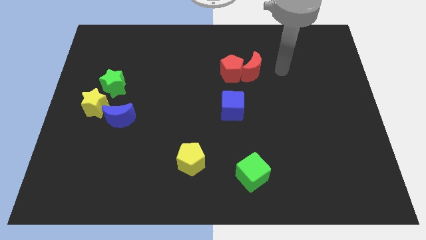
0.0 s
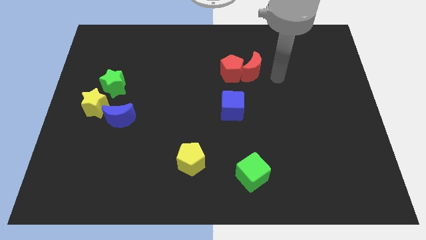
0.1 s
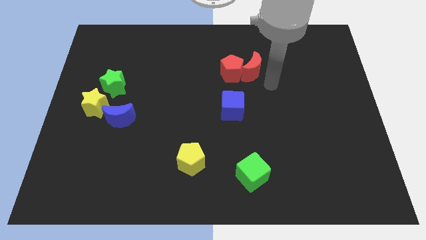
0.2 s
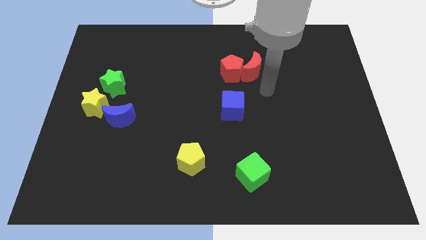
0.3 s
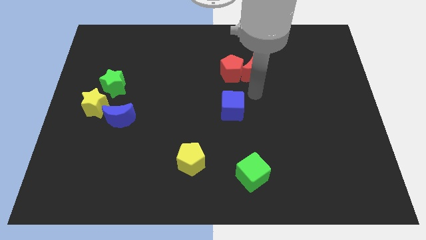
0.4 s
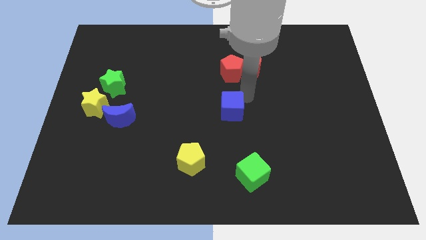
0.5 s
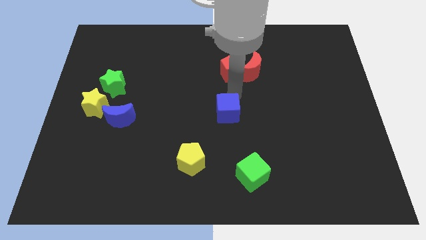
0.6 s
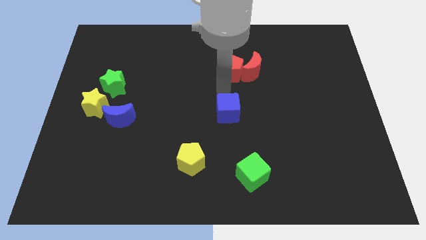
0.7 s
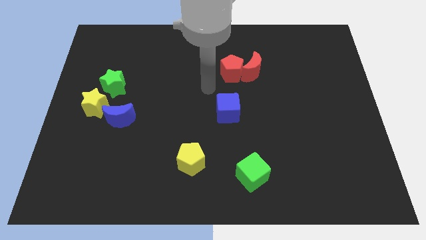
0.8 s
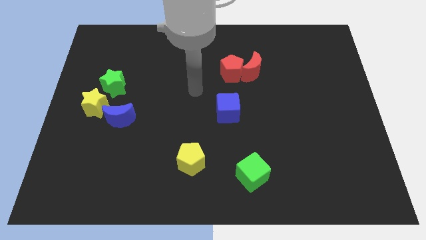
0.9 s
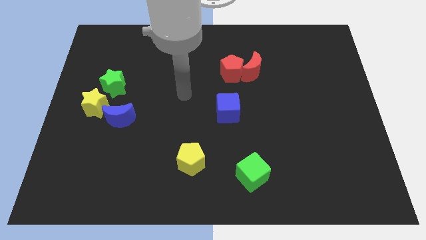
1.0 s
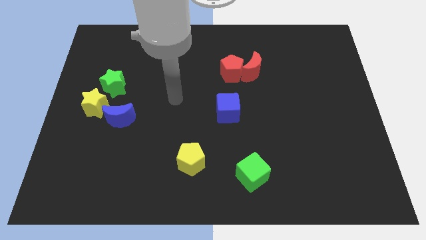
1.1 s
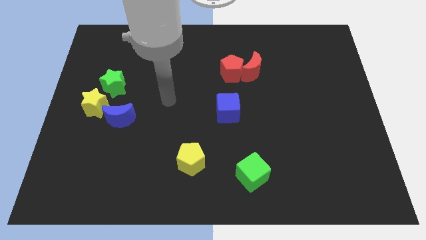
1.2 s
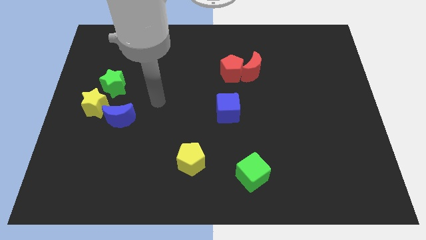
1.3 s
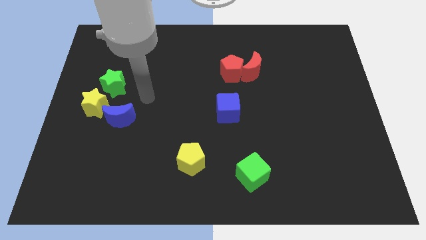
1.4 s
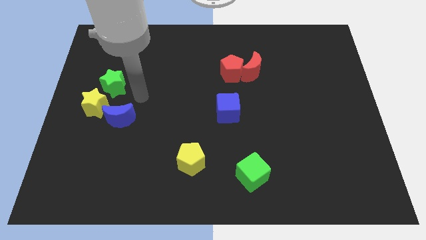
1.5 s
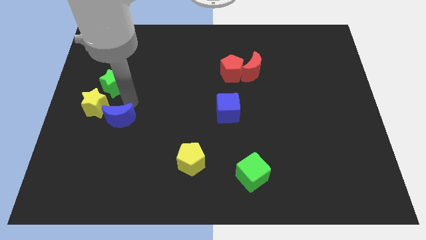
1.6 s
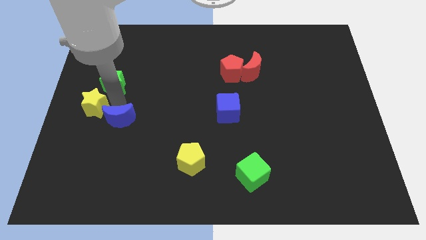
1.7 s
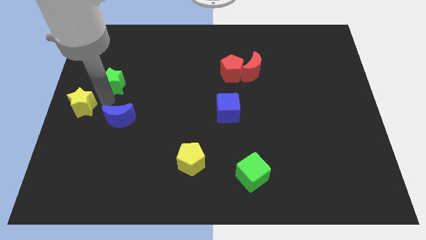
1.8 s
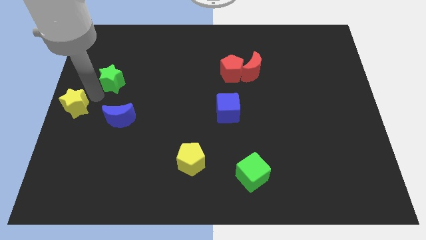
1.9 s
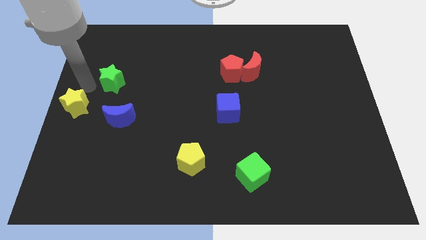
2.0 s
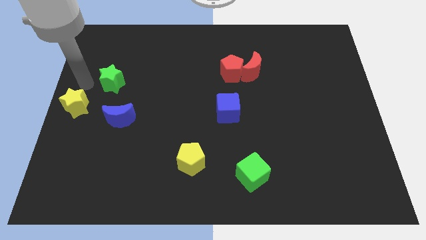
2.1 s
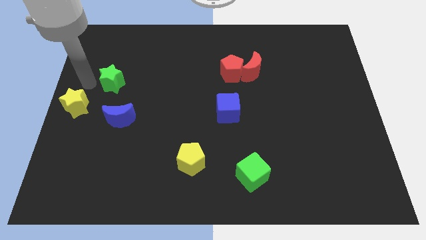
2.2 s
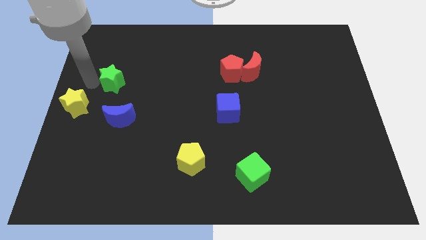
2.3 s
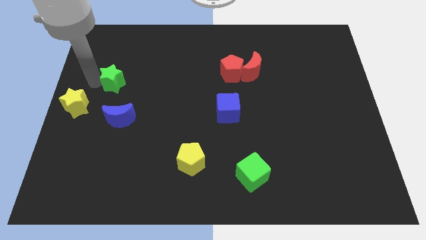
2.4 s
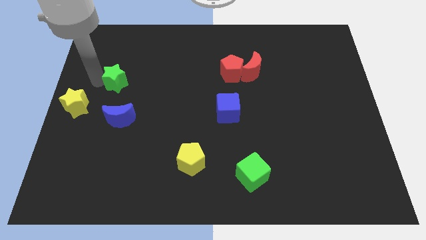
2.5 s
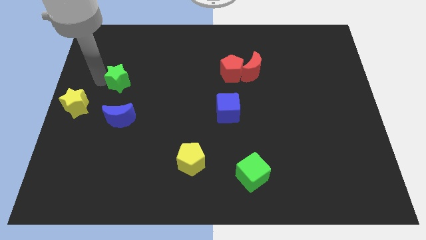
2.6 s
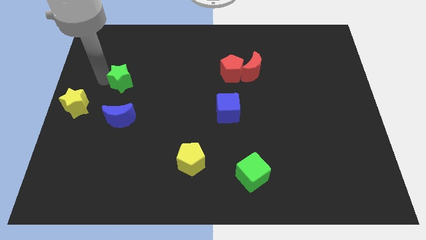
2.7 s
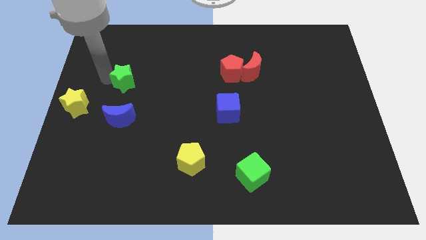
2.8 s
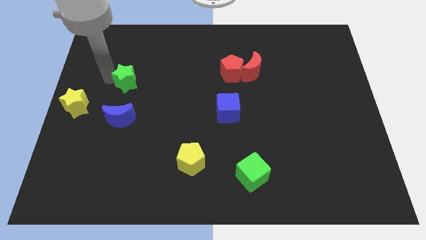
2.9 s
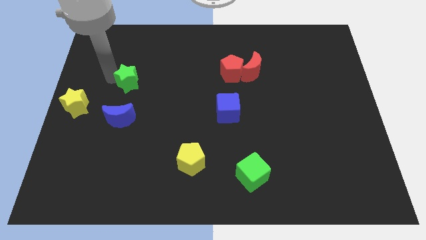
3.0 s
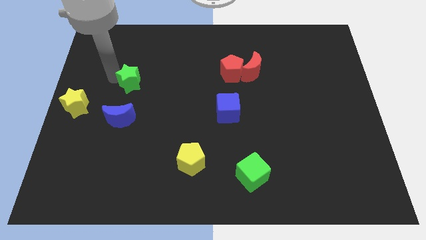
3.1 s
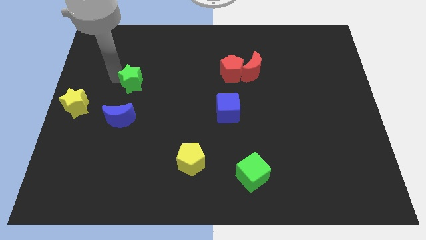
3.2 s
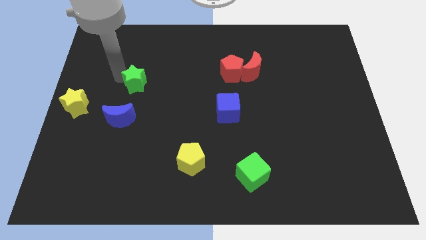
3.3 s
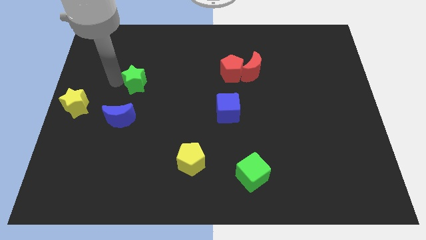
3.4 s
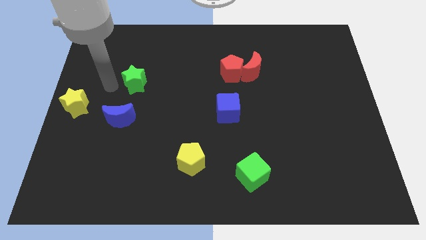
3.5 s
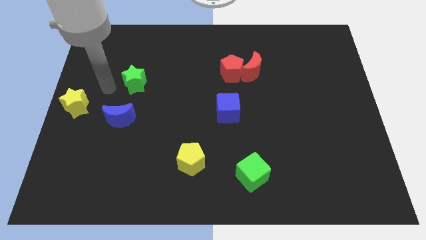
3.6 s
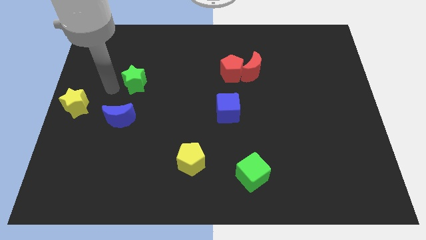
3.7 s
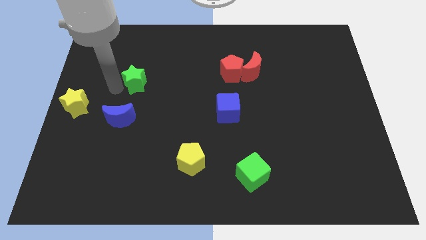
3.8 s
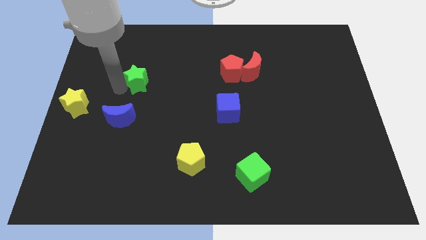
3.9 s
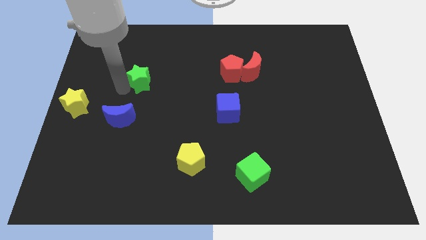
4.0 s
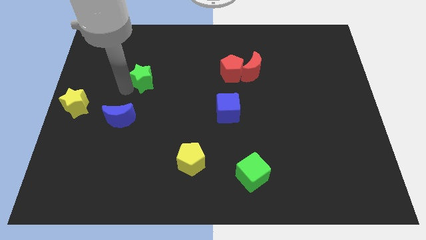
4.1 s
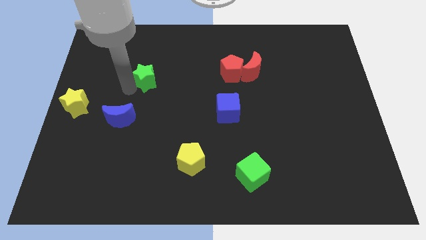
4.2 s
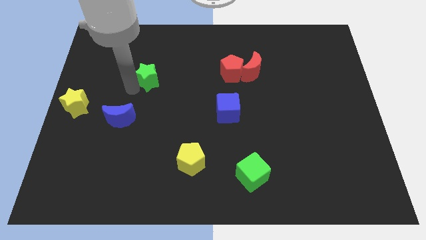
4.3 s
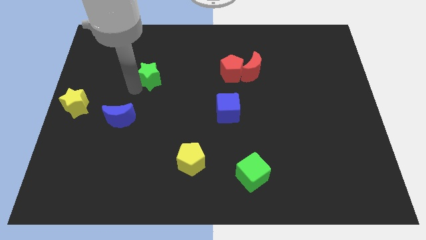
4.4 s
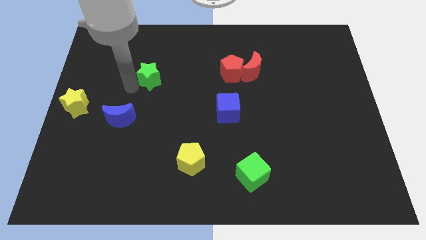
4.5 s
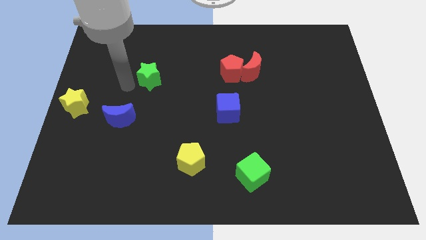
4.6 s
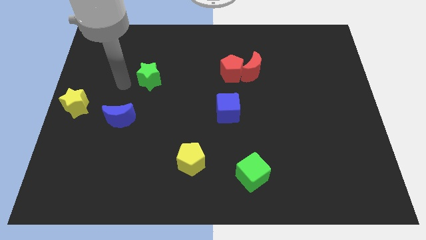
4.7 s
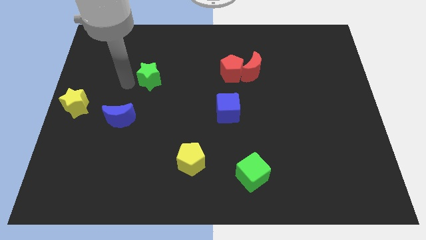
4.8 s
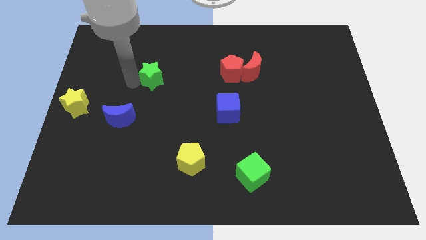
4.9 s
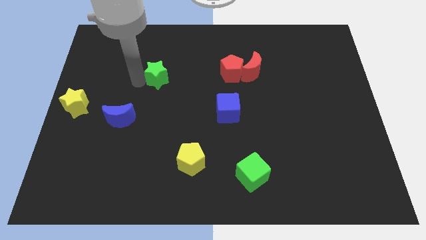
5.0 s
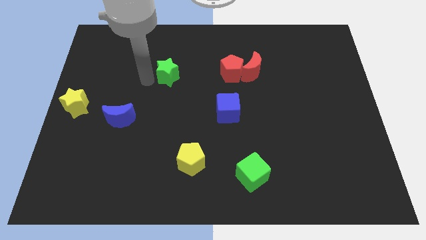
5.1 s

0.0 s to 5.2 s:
move the green star to the left side of the red pentagon

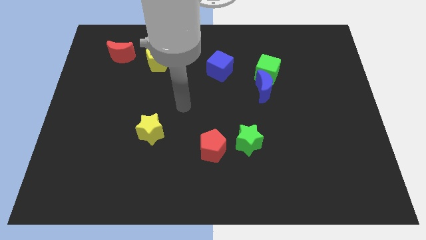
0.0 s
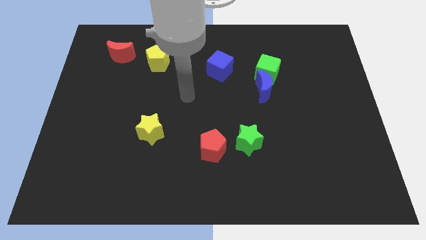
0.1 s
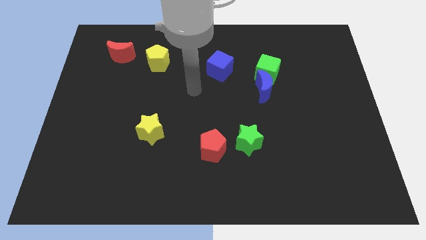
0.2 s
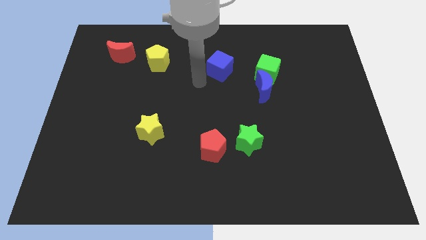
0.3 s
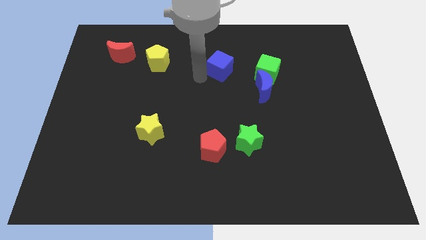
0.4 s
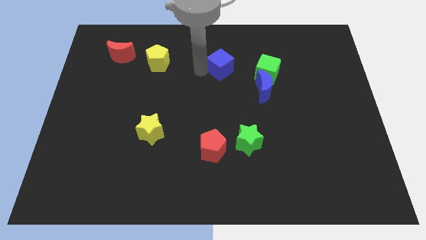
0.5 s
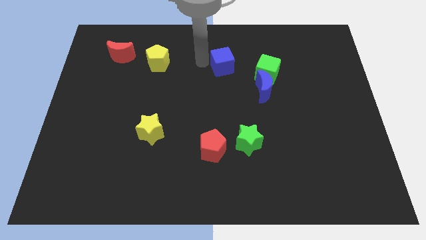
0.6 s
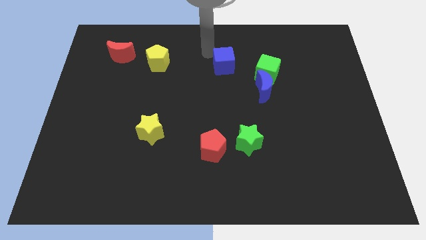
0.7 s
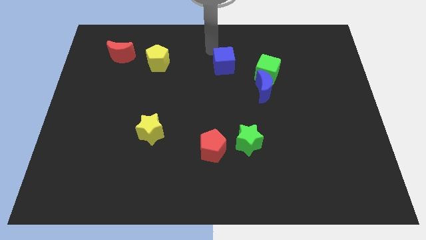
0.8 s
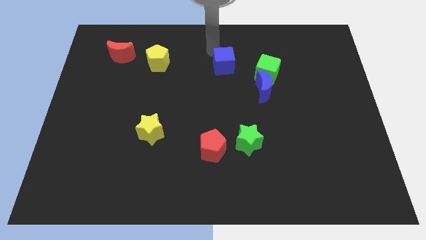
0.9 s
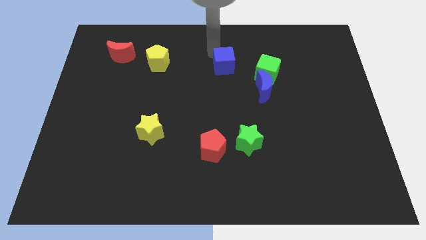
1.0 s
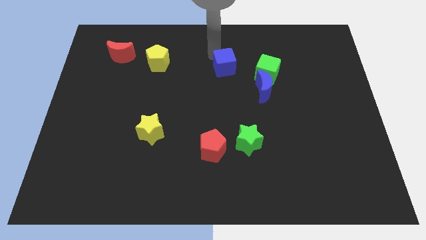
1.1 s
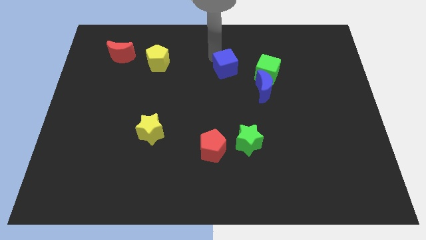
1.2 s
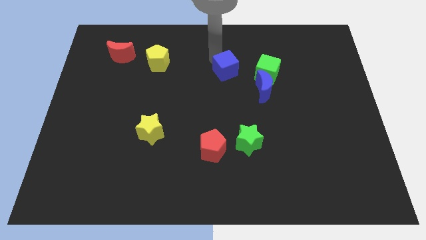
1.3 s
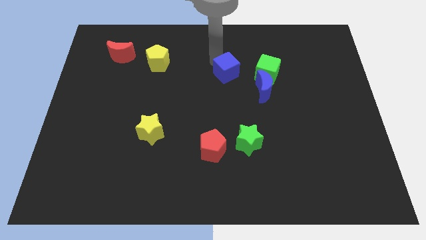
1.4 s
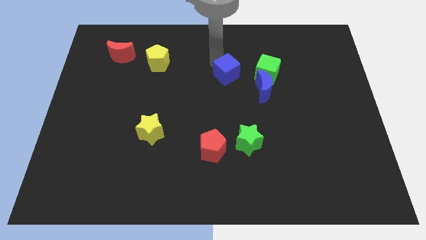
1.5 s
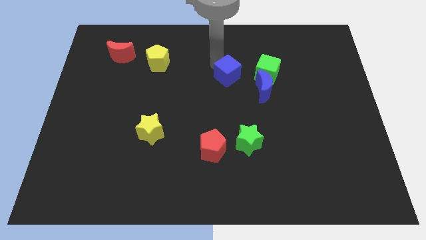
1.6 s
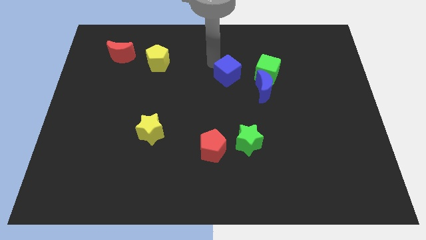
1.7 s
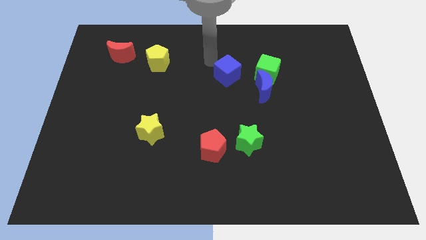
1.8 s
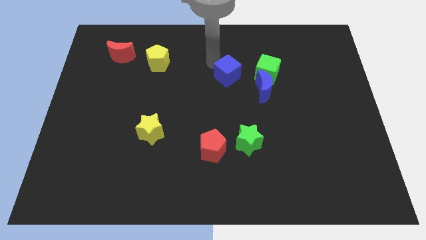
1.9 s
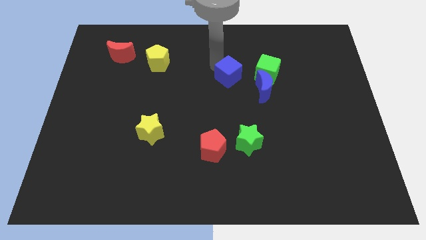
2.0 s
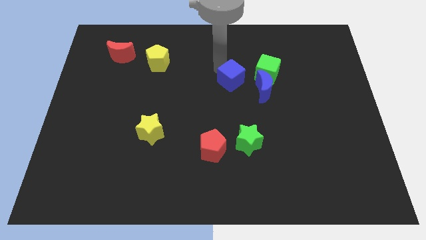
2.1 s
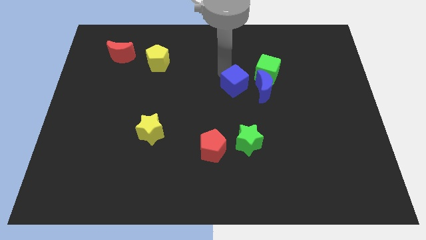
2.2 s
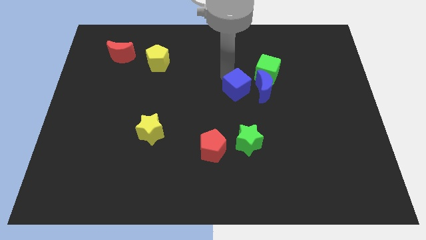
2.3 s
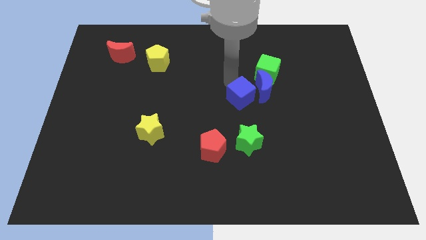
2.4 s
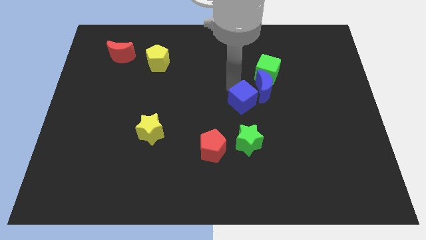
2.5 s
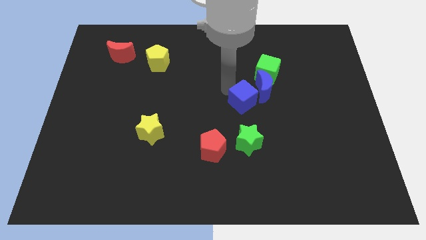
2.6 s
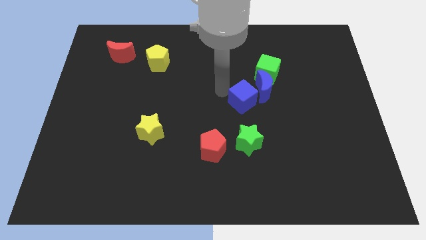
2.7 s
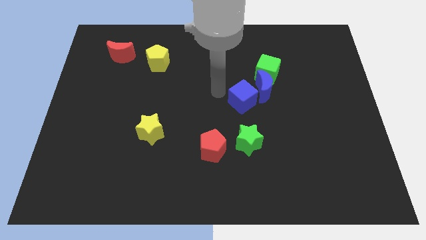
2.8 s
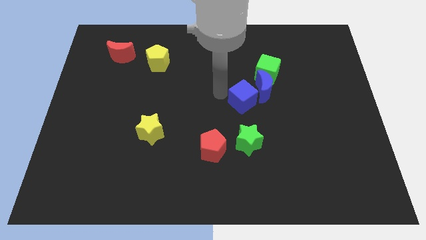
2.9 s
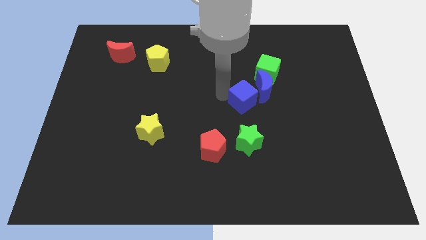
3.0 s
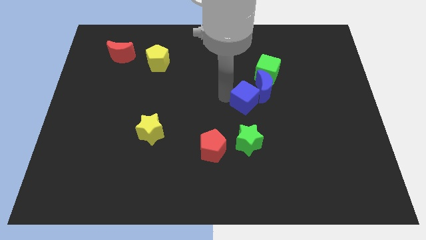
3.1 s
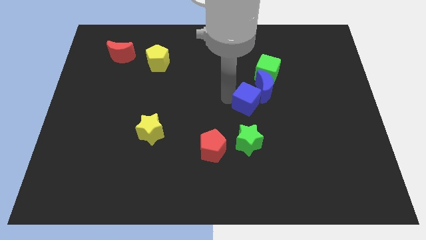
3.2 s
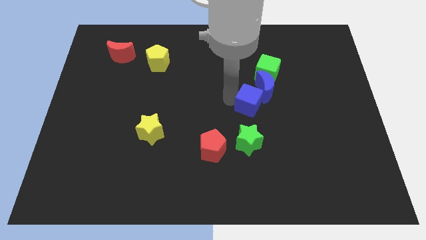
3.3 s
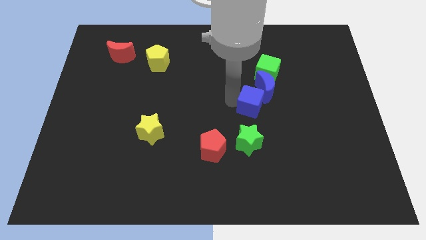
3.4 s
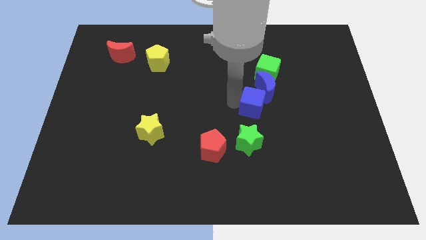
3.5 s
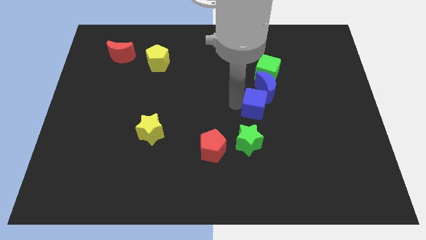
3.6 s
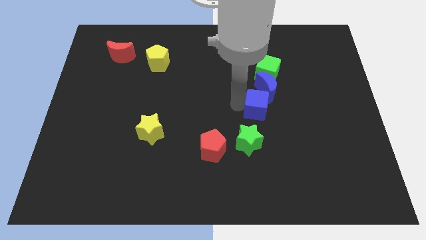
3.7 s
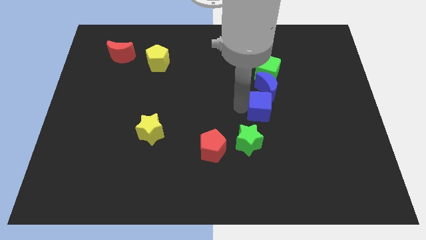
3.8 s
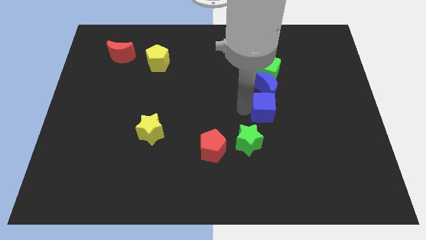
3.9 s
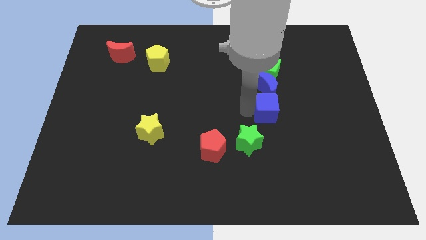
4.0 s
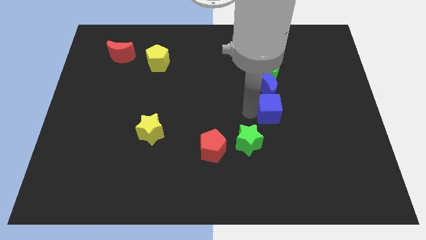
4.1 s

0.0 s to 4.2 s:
put the blue cube to the bottom right side of the blue moon
